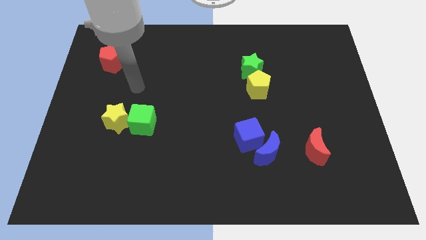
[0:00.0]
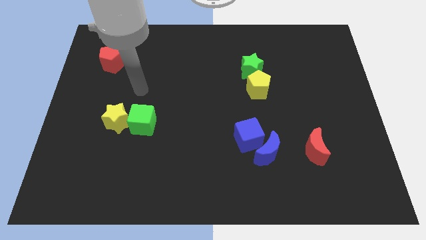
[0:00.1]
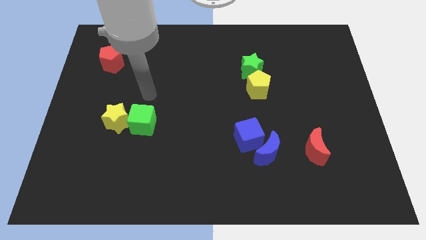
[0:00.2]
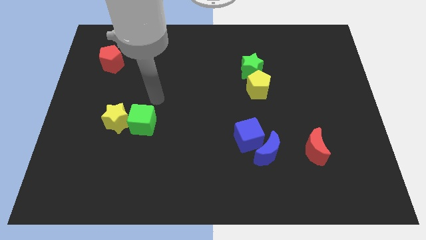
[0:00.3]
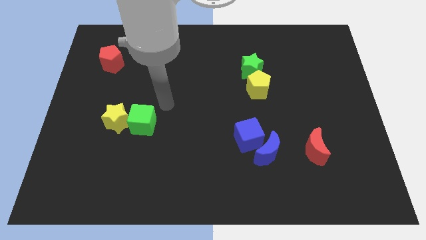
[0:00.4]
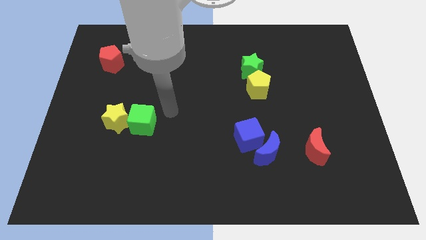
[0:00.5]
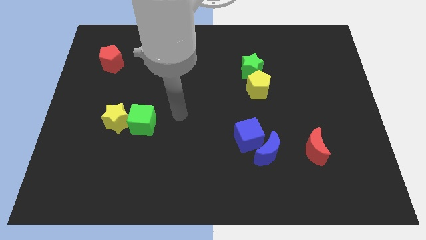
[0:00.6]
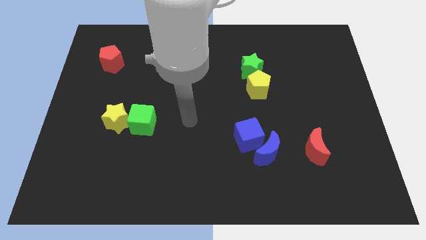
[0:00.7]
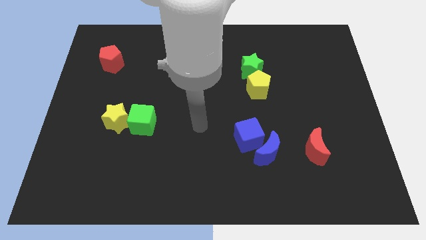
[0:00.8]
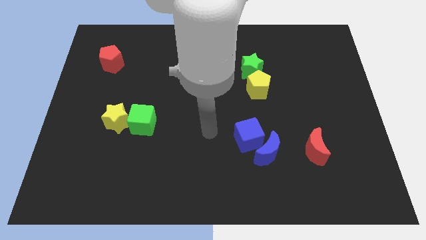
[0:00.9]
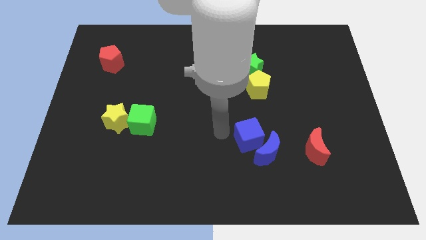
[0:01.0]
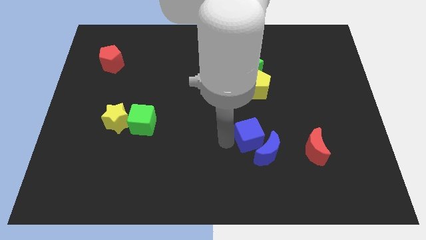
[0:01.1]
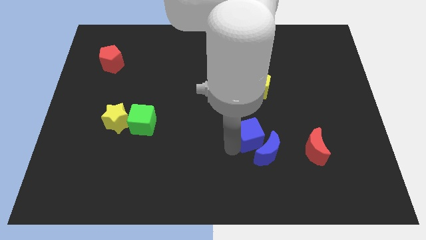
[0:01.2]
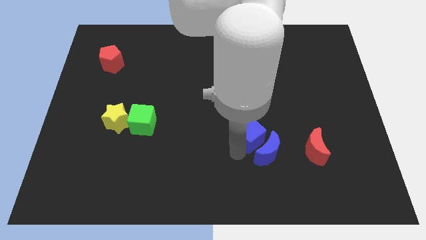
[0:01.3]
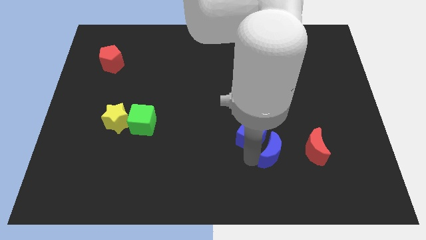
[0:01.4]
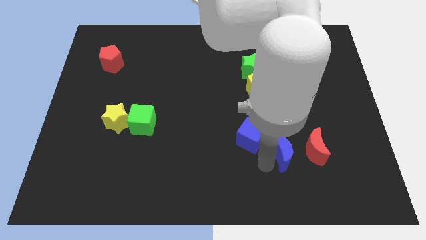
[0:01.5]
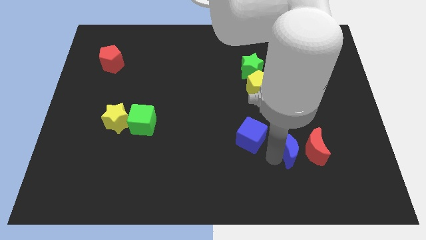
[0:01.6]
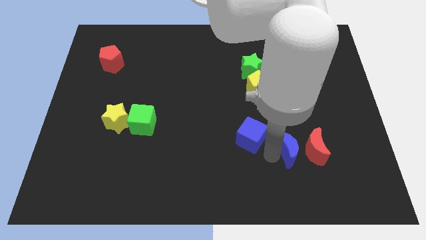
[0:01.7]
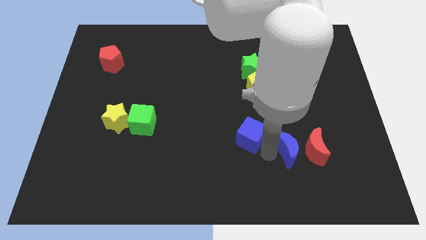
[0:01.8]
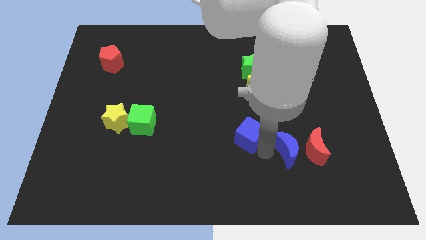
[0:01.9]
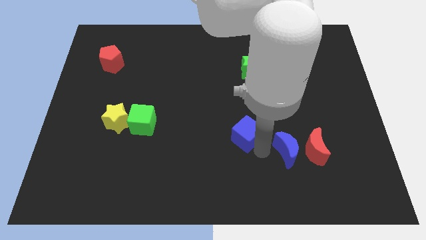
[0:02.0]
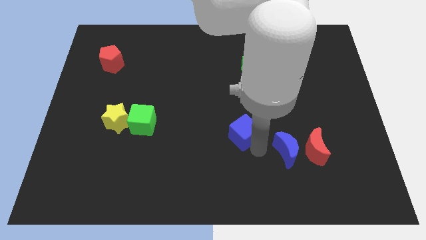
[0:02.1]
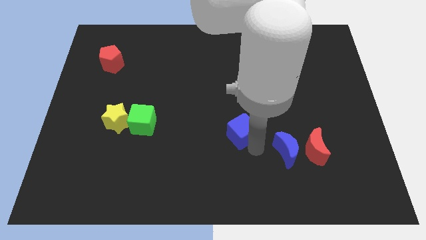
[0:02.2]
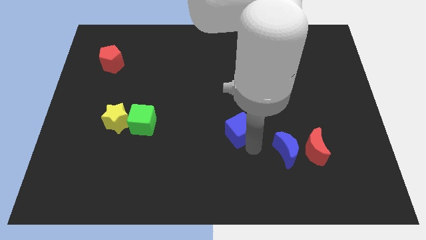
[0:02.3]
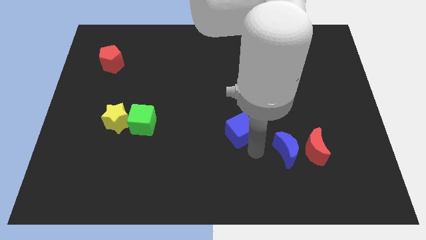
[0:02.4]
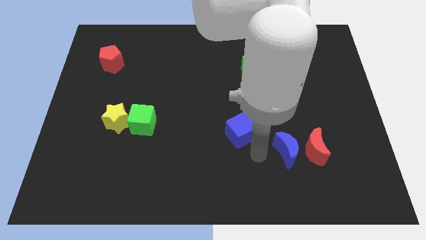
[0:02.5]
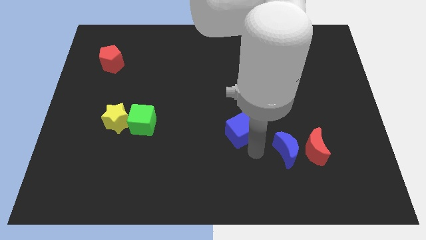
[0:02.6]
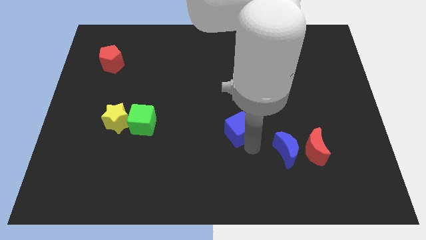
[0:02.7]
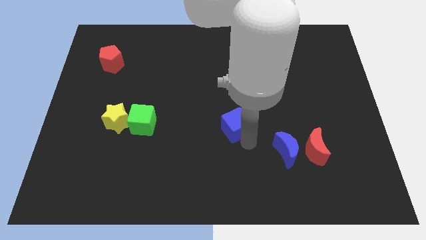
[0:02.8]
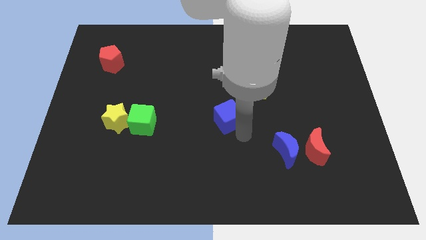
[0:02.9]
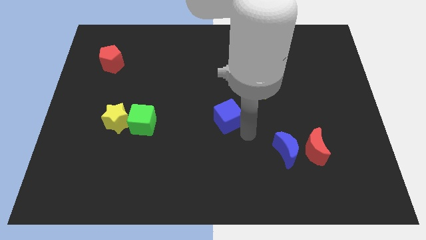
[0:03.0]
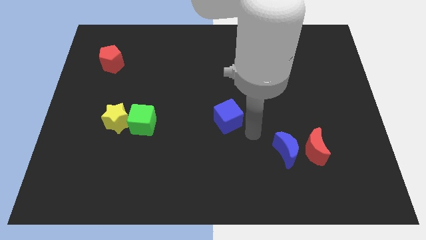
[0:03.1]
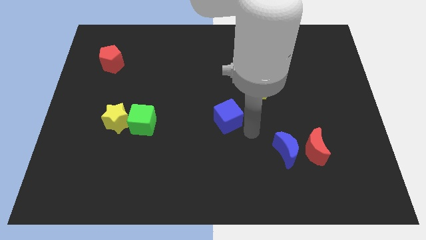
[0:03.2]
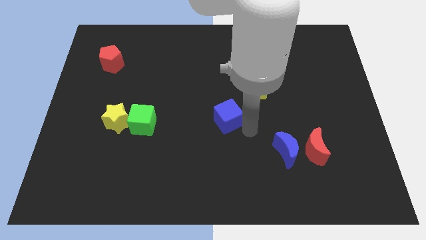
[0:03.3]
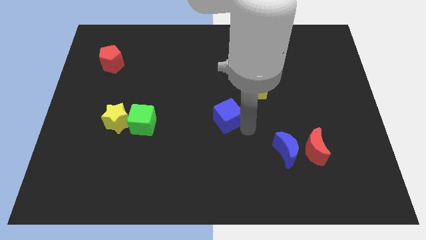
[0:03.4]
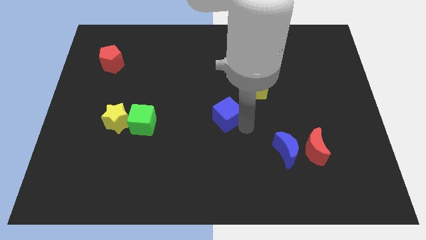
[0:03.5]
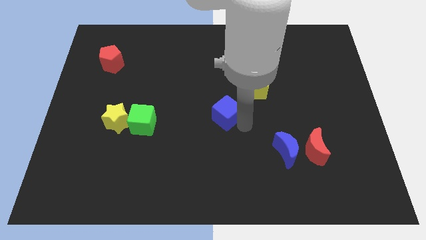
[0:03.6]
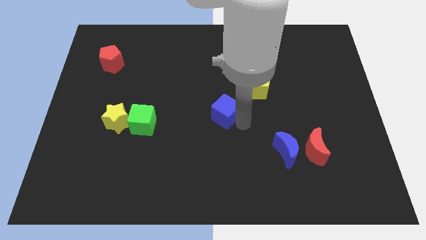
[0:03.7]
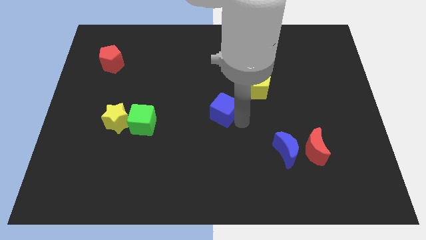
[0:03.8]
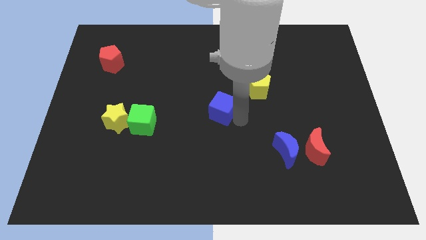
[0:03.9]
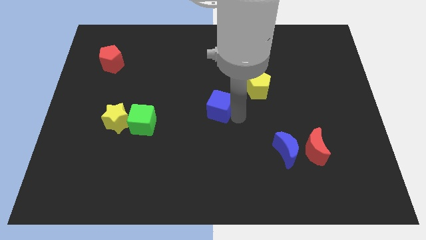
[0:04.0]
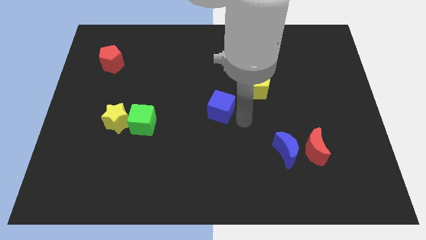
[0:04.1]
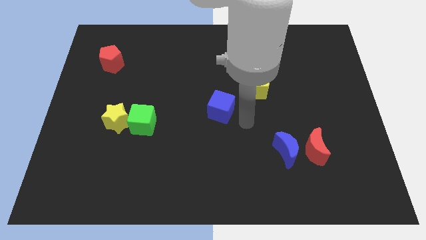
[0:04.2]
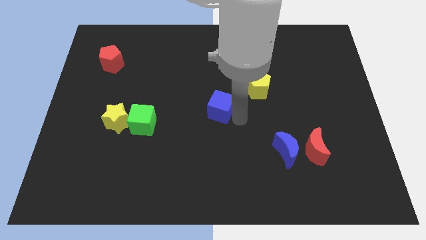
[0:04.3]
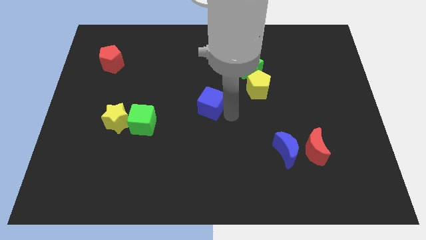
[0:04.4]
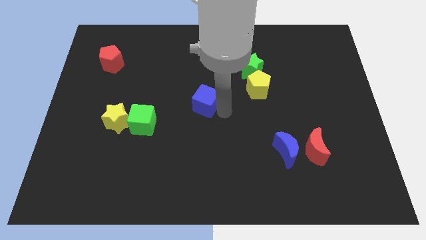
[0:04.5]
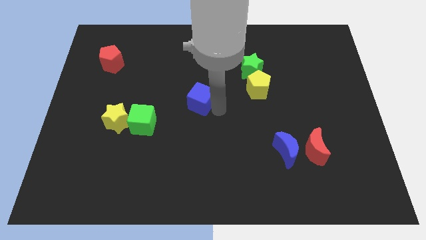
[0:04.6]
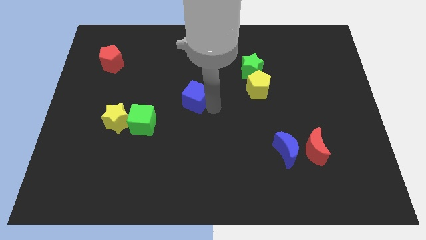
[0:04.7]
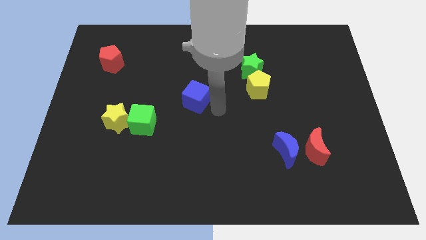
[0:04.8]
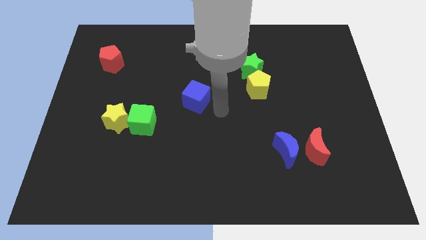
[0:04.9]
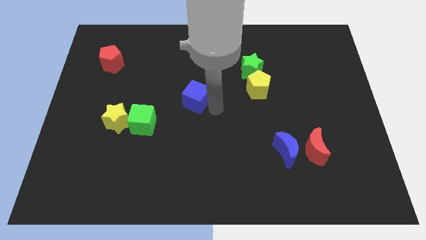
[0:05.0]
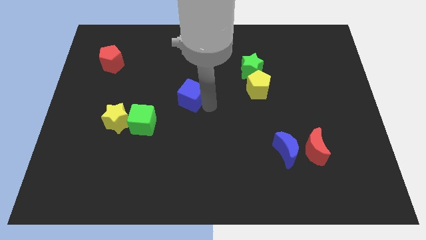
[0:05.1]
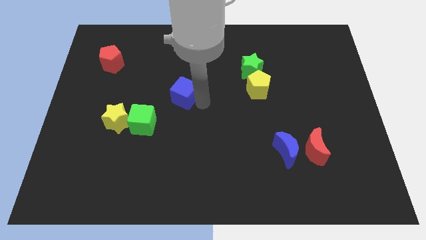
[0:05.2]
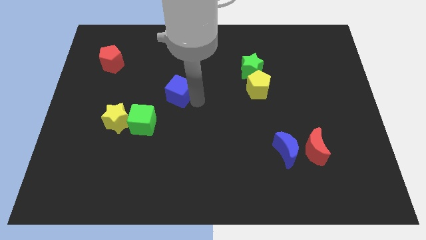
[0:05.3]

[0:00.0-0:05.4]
slide the blue cube upwards and left

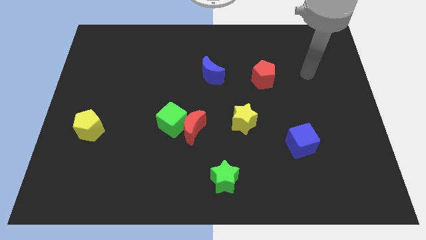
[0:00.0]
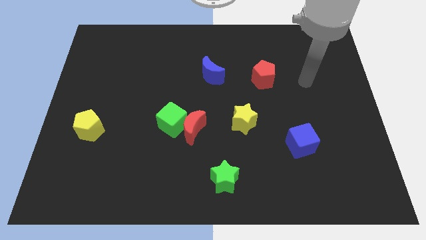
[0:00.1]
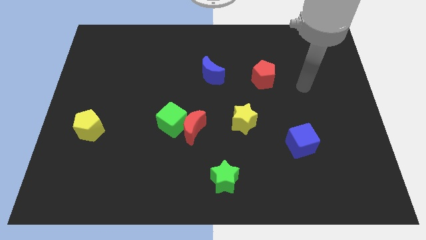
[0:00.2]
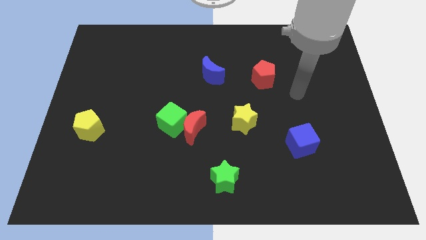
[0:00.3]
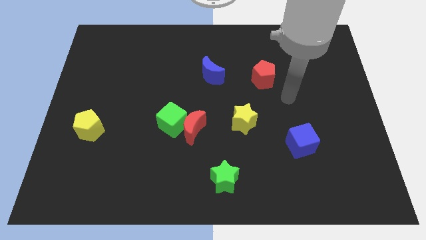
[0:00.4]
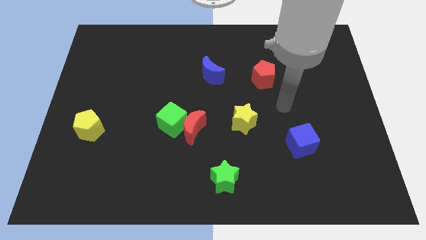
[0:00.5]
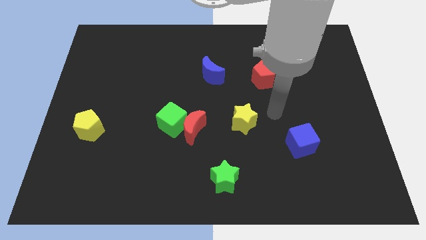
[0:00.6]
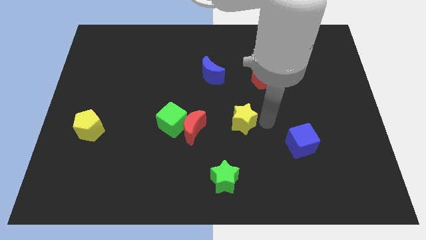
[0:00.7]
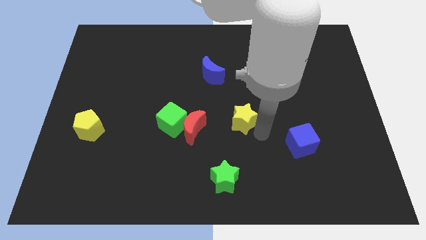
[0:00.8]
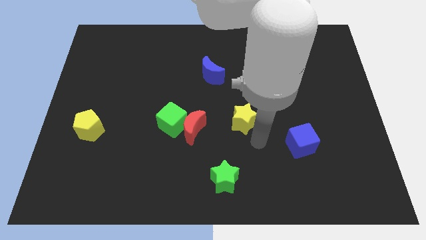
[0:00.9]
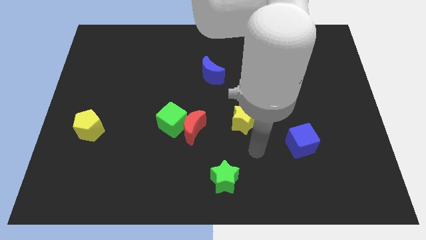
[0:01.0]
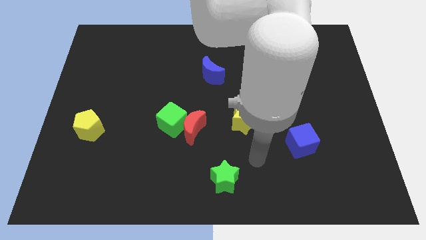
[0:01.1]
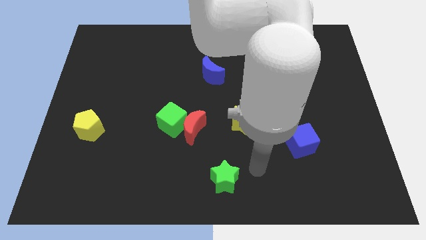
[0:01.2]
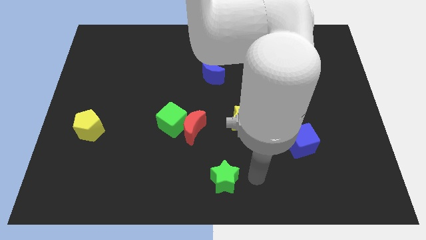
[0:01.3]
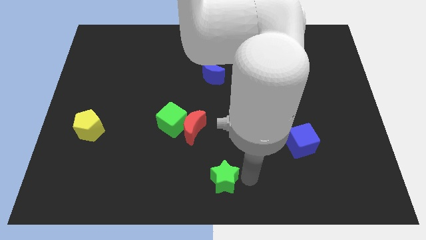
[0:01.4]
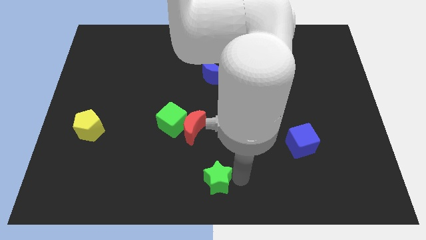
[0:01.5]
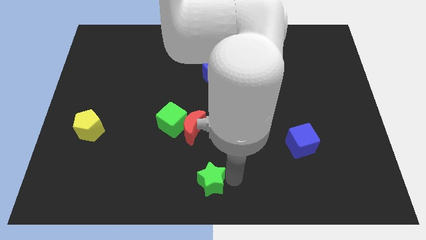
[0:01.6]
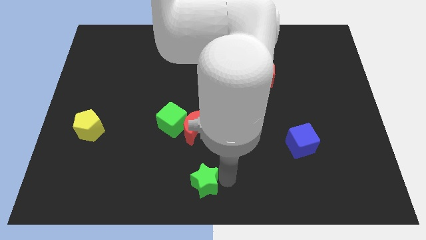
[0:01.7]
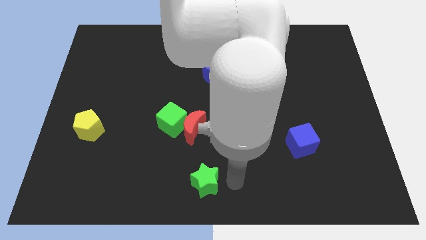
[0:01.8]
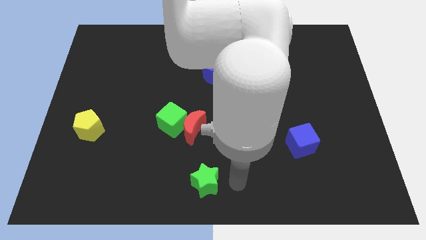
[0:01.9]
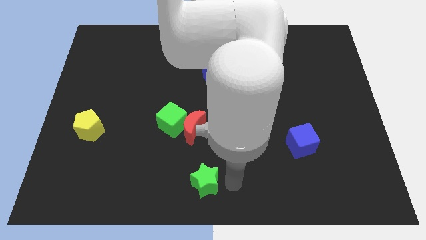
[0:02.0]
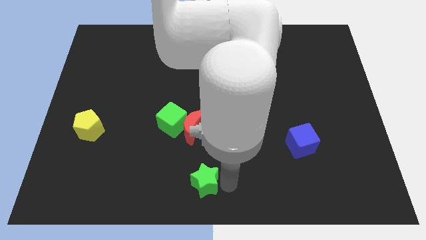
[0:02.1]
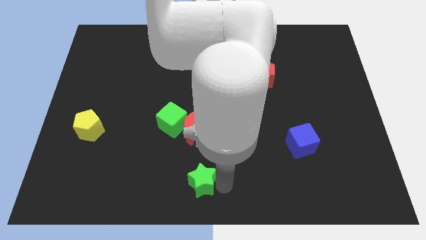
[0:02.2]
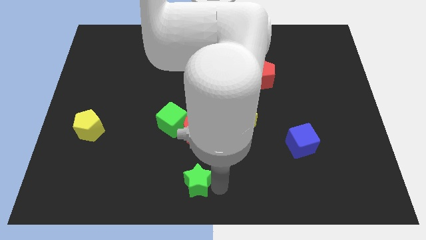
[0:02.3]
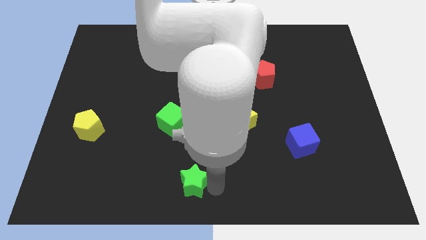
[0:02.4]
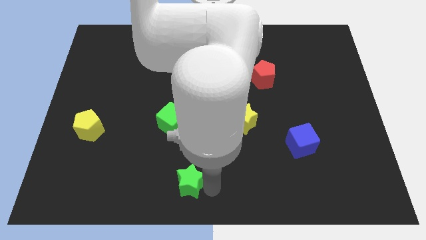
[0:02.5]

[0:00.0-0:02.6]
slightly push the green star left

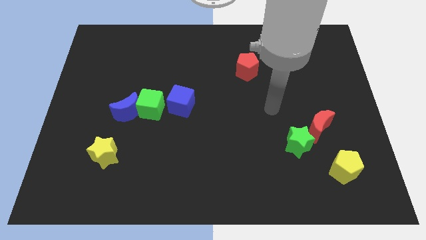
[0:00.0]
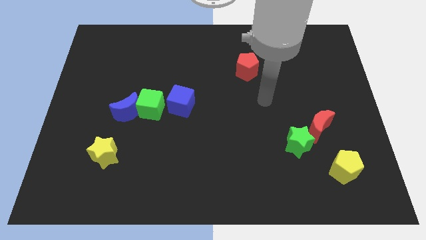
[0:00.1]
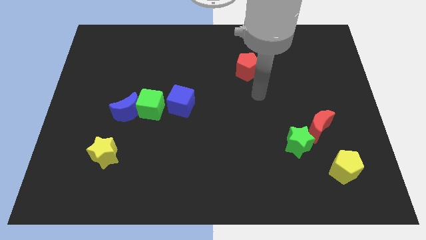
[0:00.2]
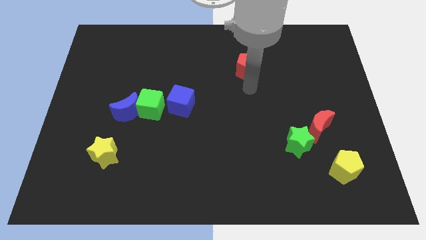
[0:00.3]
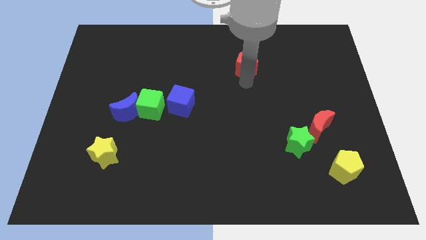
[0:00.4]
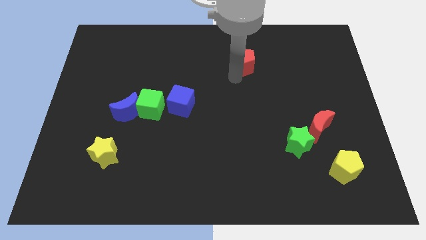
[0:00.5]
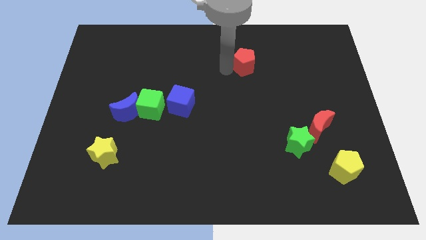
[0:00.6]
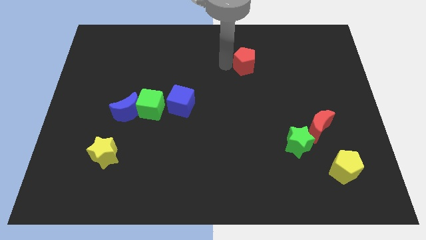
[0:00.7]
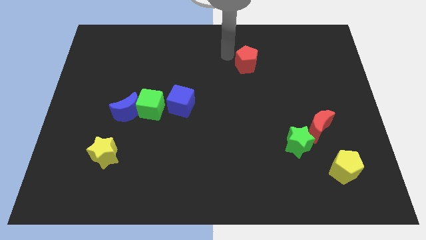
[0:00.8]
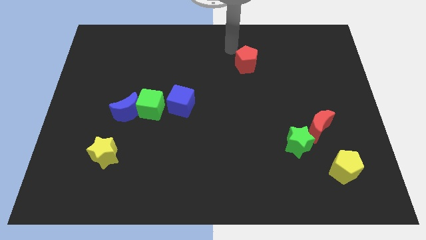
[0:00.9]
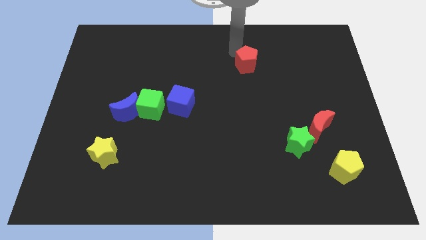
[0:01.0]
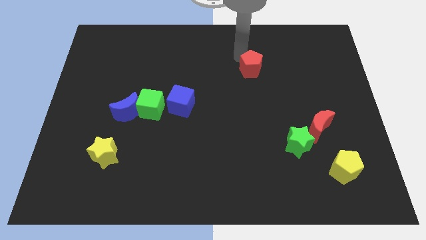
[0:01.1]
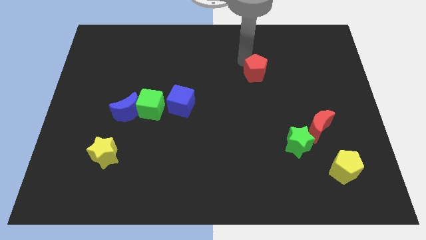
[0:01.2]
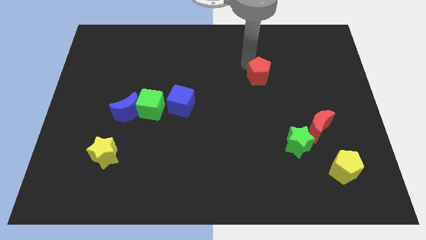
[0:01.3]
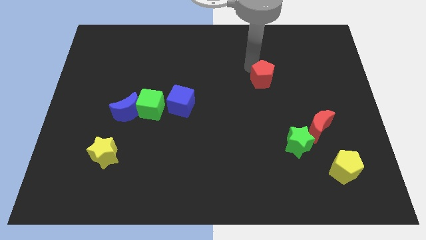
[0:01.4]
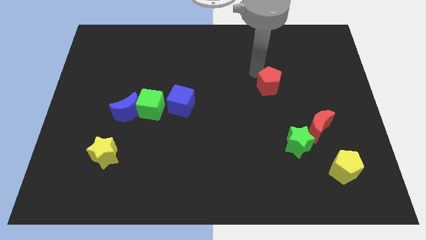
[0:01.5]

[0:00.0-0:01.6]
move the red pentagon a little down and then right
